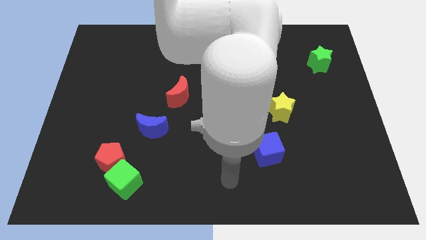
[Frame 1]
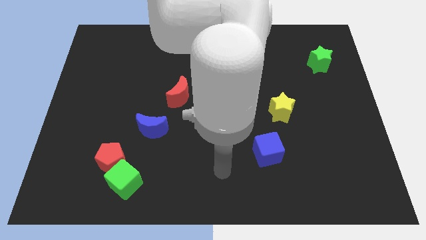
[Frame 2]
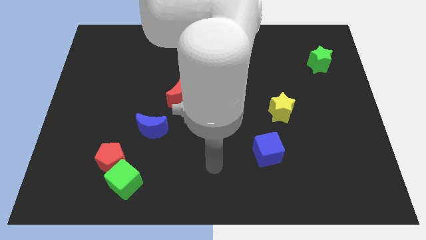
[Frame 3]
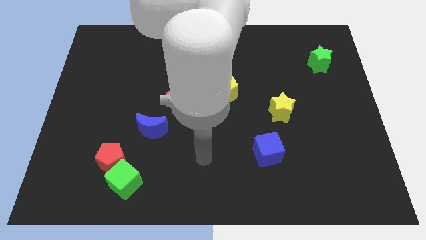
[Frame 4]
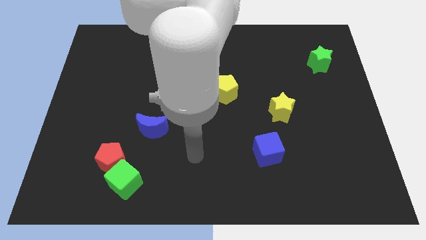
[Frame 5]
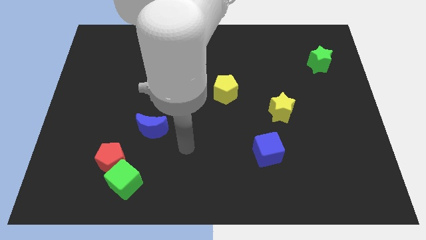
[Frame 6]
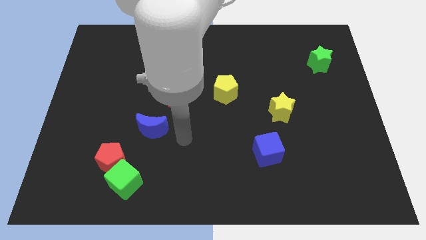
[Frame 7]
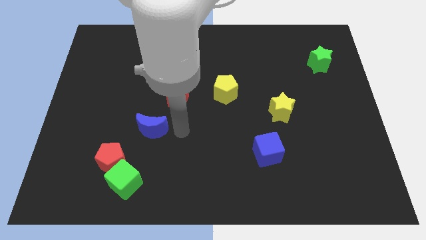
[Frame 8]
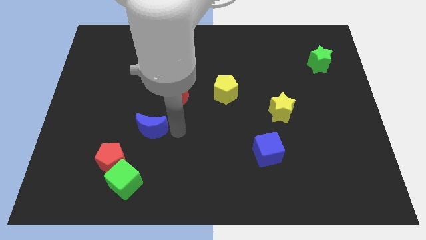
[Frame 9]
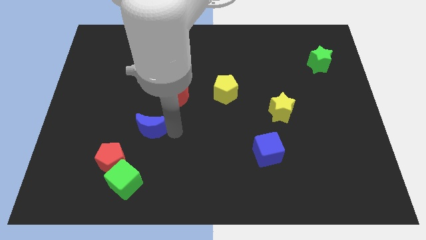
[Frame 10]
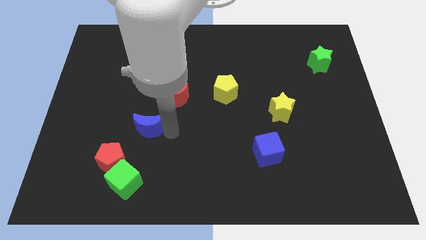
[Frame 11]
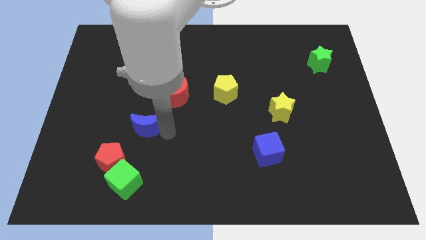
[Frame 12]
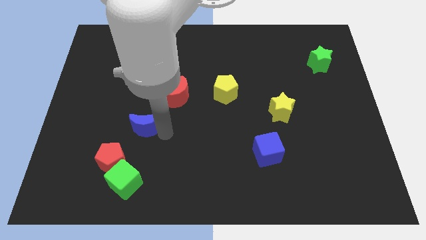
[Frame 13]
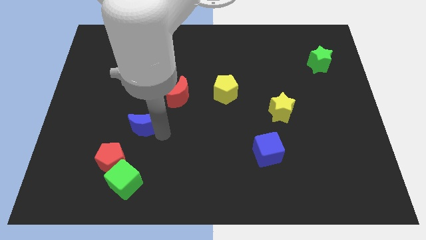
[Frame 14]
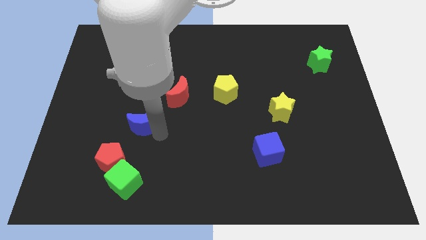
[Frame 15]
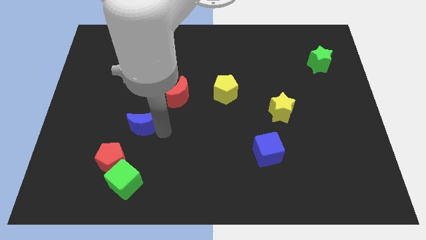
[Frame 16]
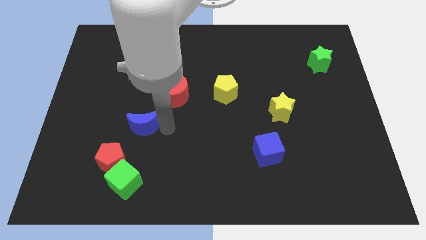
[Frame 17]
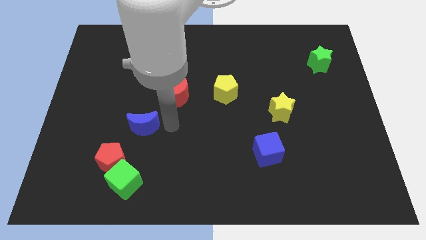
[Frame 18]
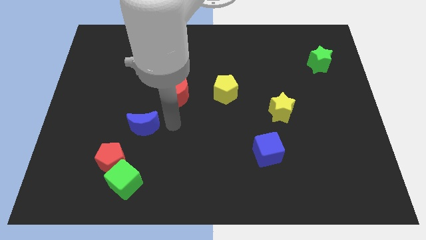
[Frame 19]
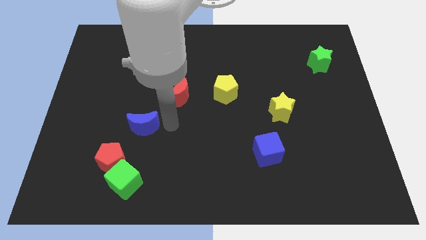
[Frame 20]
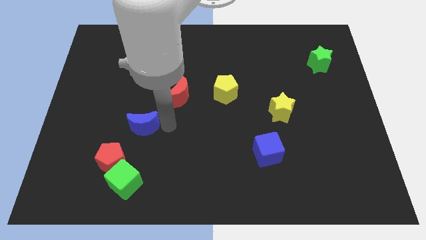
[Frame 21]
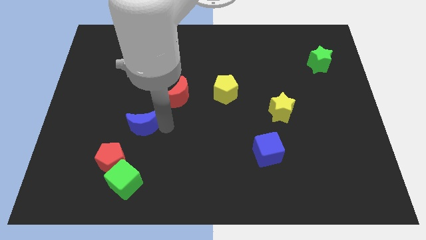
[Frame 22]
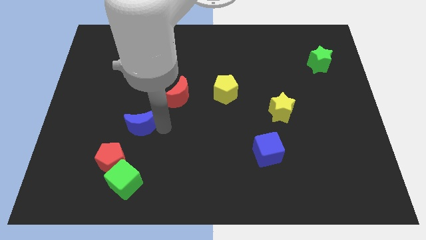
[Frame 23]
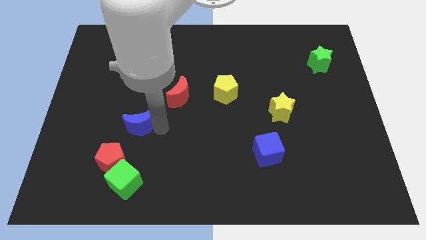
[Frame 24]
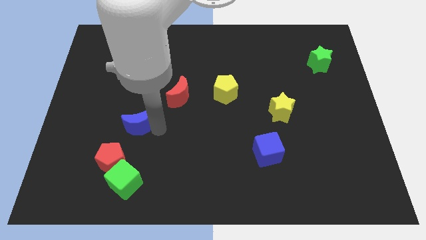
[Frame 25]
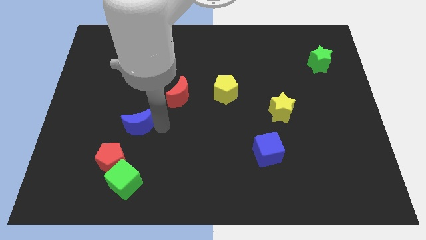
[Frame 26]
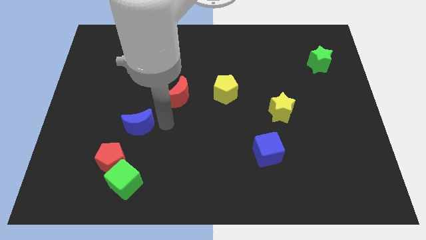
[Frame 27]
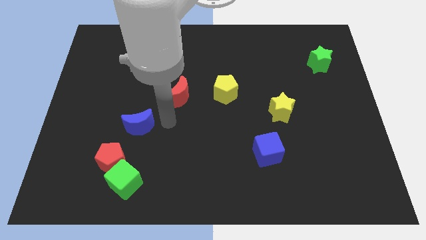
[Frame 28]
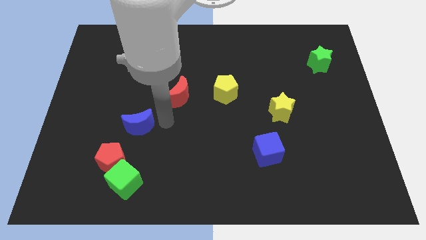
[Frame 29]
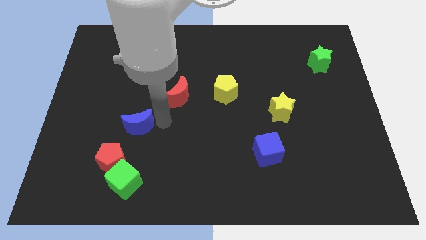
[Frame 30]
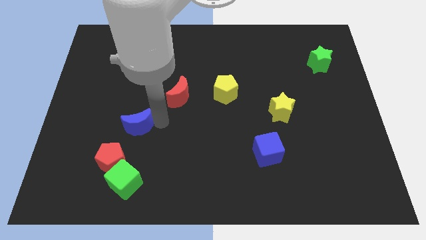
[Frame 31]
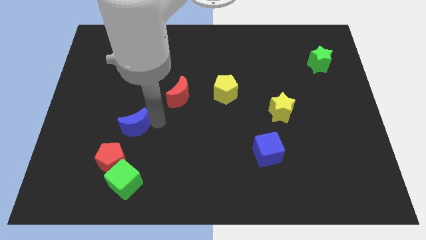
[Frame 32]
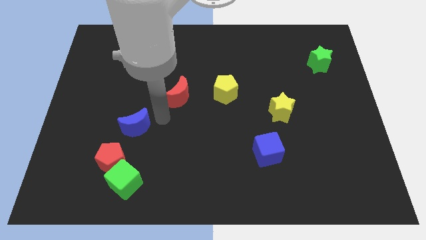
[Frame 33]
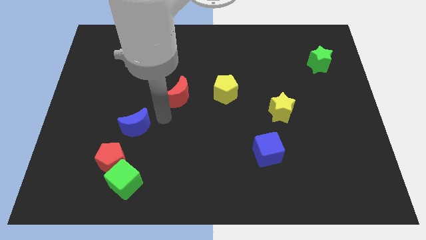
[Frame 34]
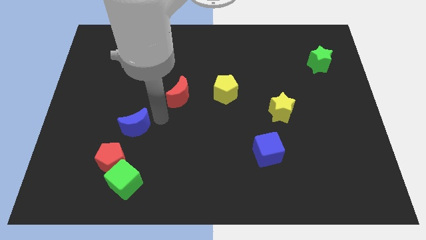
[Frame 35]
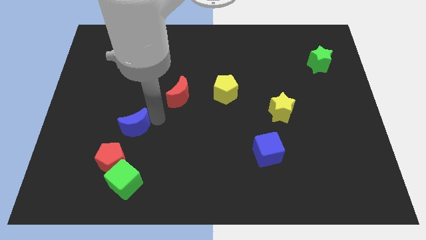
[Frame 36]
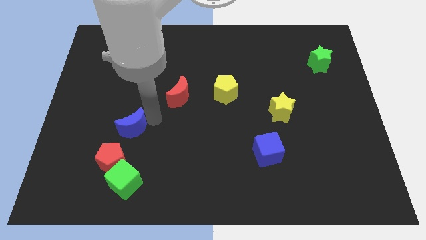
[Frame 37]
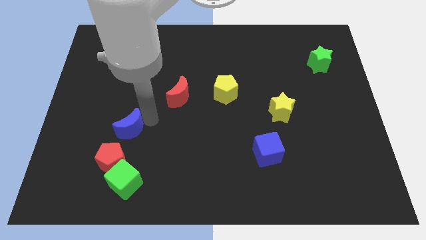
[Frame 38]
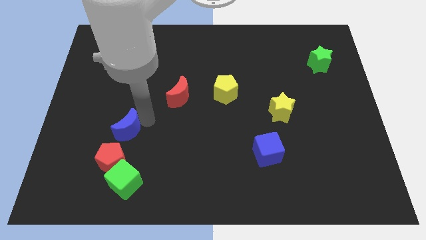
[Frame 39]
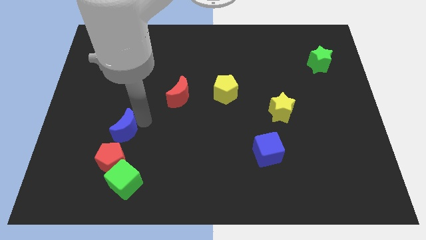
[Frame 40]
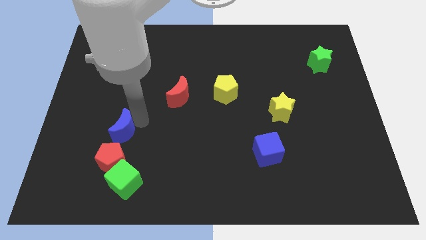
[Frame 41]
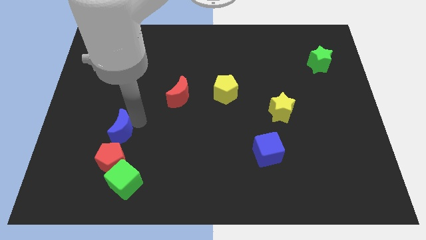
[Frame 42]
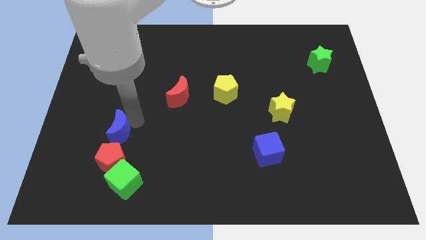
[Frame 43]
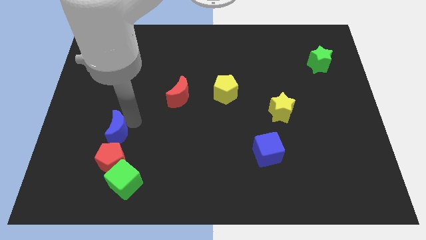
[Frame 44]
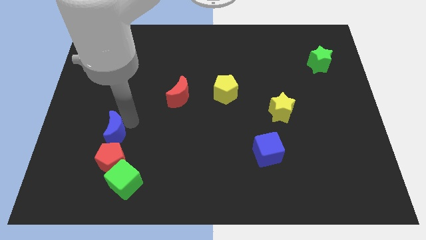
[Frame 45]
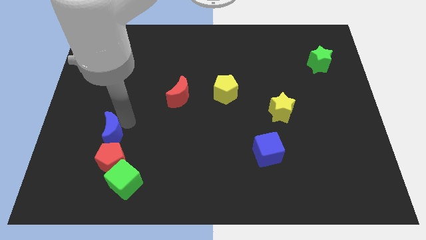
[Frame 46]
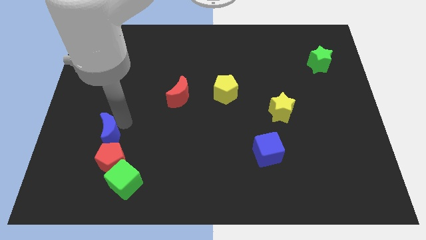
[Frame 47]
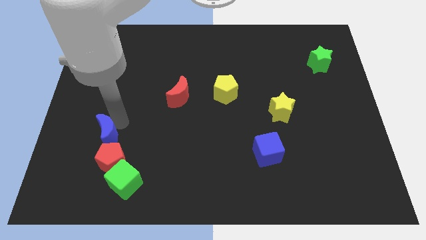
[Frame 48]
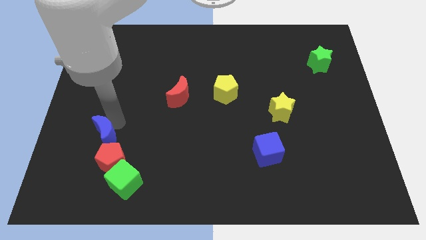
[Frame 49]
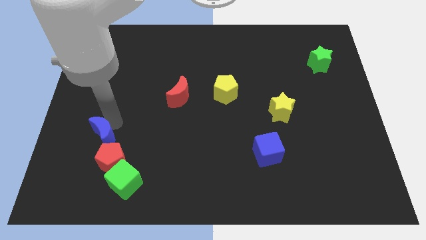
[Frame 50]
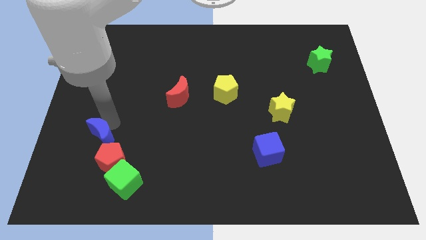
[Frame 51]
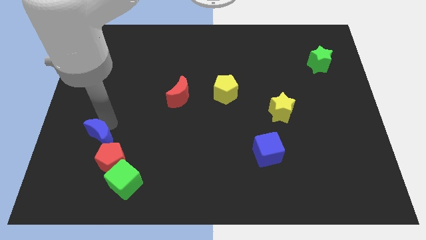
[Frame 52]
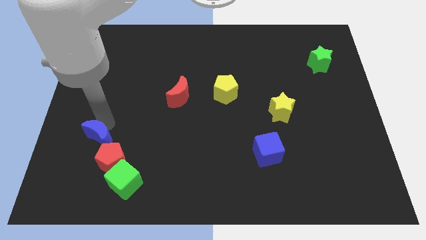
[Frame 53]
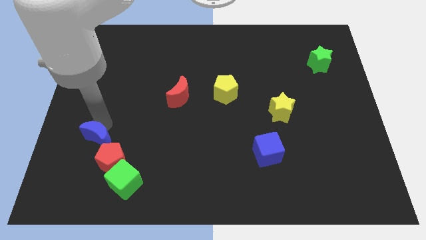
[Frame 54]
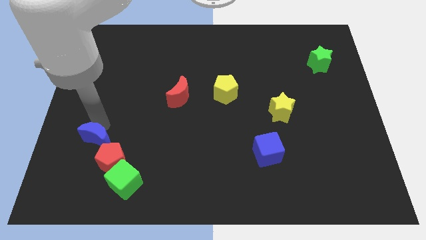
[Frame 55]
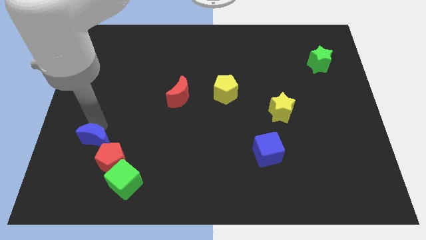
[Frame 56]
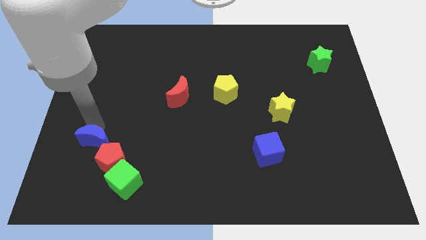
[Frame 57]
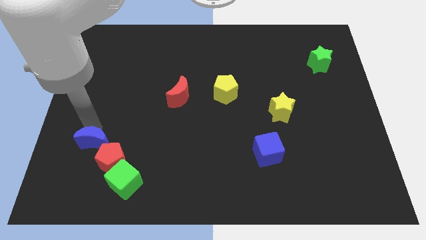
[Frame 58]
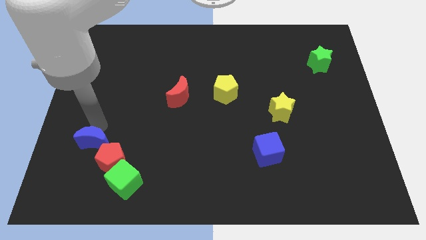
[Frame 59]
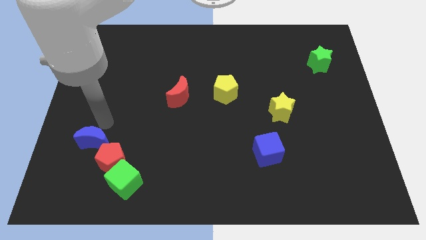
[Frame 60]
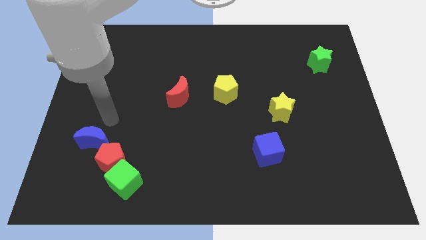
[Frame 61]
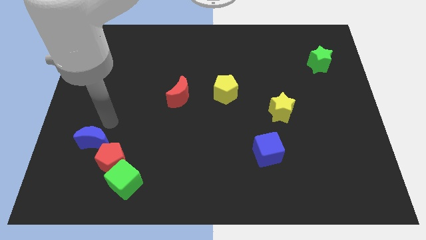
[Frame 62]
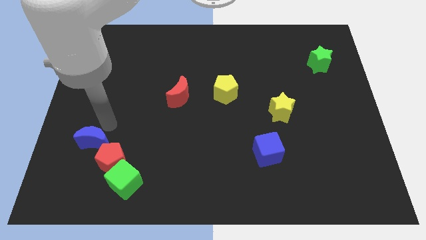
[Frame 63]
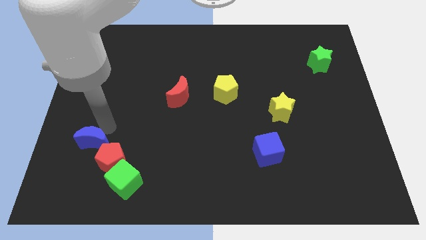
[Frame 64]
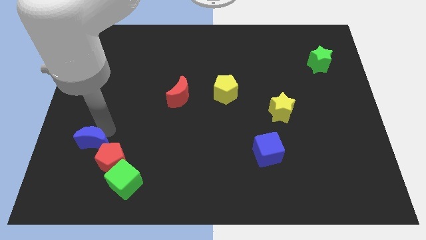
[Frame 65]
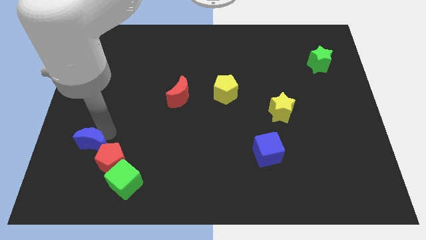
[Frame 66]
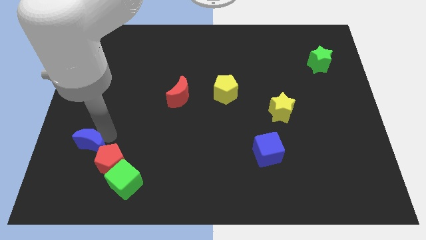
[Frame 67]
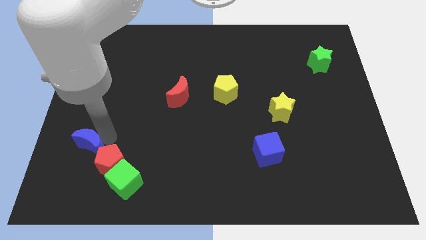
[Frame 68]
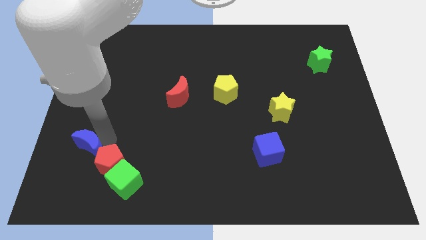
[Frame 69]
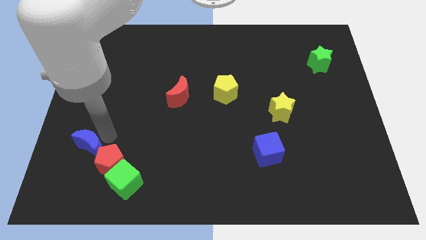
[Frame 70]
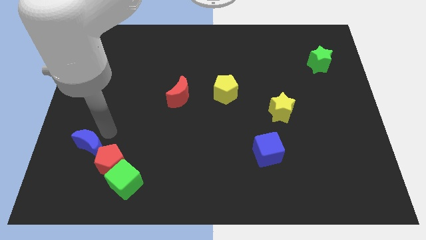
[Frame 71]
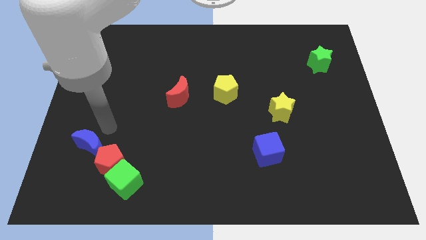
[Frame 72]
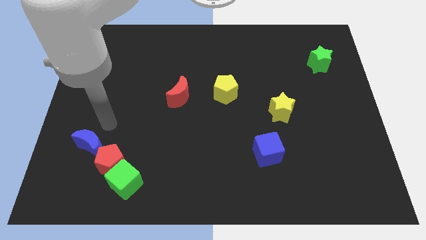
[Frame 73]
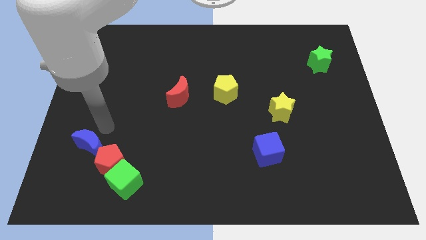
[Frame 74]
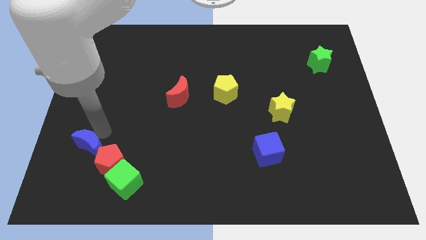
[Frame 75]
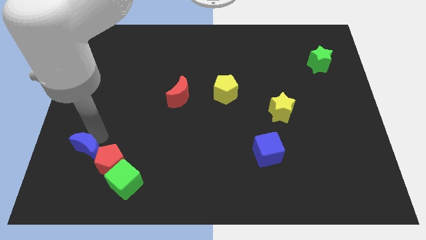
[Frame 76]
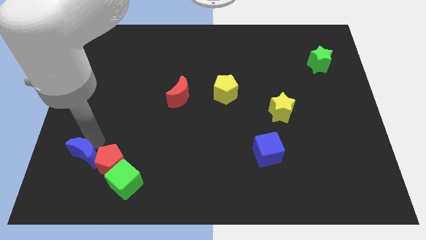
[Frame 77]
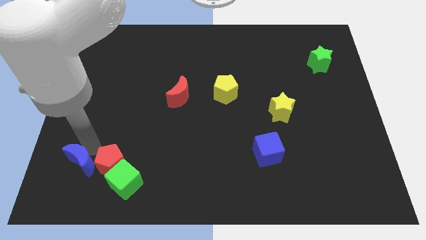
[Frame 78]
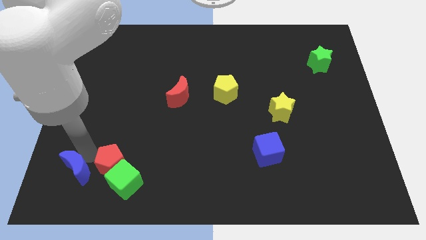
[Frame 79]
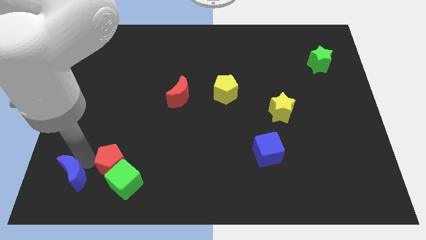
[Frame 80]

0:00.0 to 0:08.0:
put the blue moon to the lower left corner
